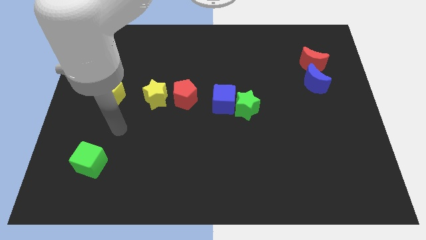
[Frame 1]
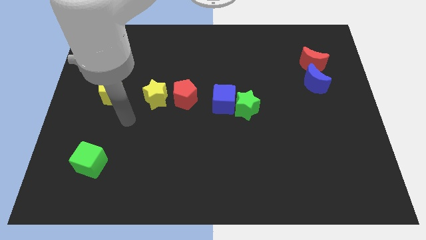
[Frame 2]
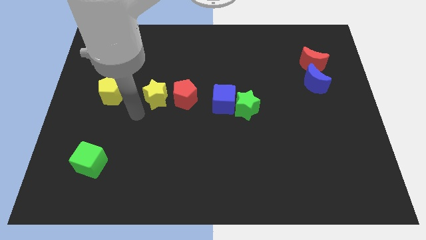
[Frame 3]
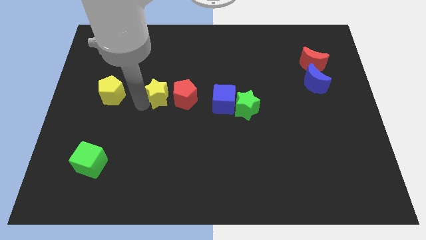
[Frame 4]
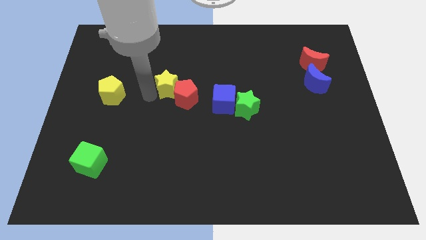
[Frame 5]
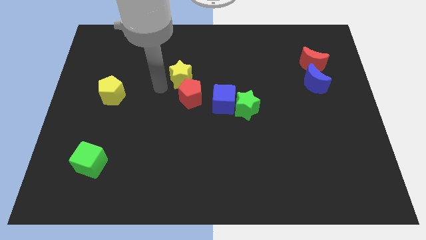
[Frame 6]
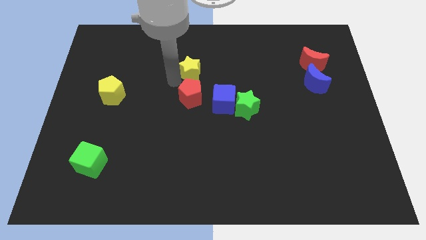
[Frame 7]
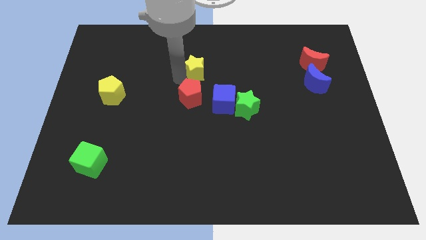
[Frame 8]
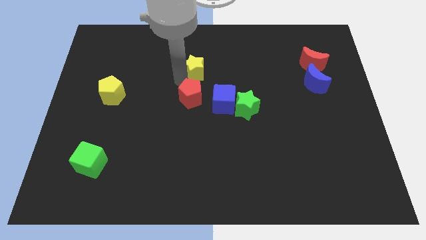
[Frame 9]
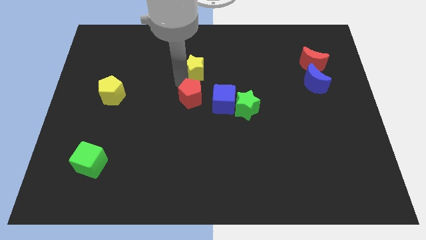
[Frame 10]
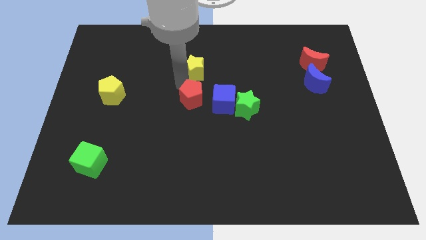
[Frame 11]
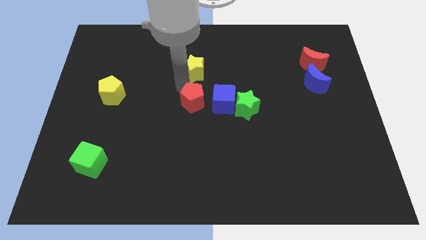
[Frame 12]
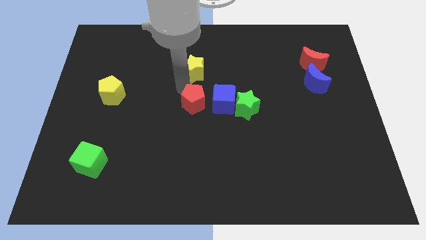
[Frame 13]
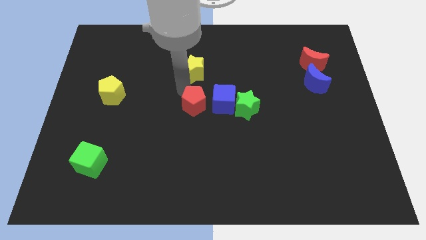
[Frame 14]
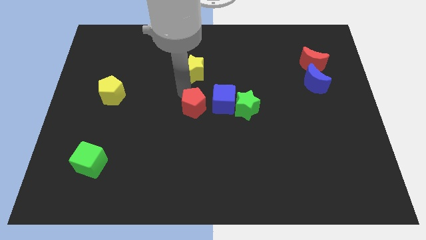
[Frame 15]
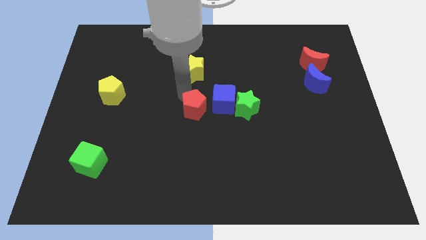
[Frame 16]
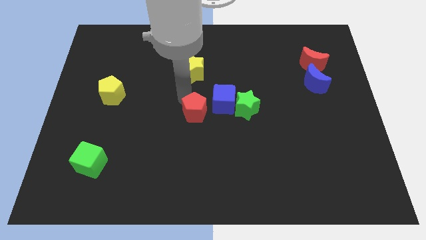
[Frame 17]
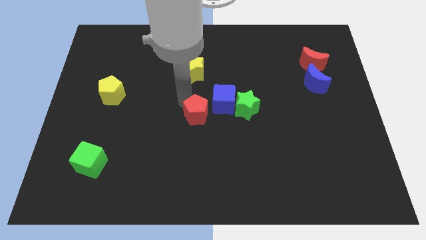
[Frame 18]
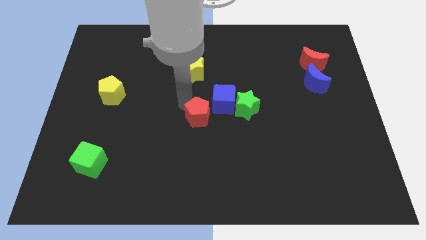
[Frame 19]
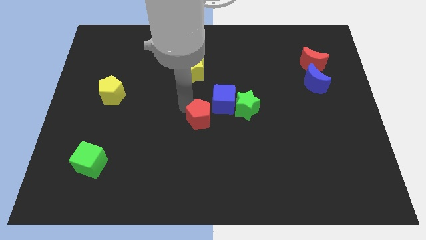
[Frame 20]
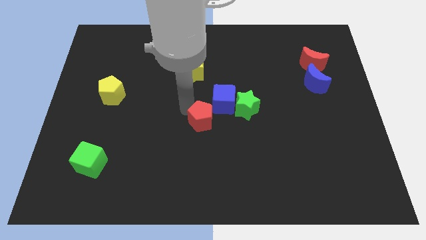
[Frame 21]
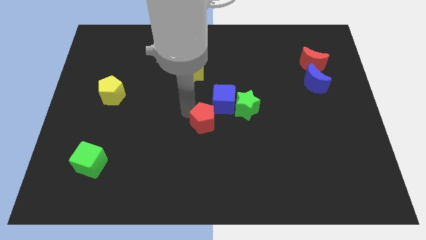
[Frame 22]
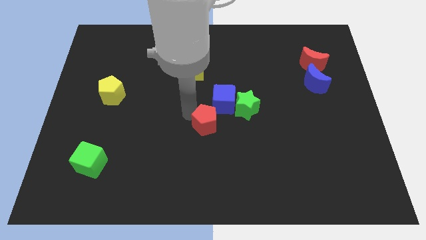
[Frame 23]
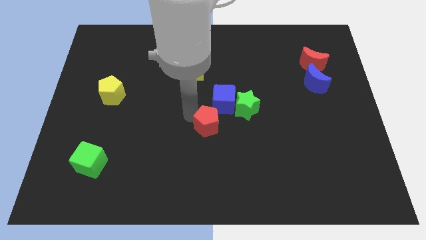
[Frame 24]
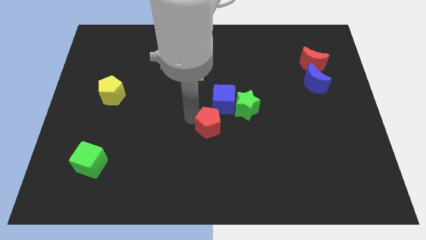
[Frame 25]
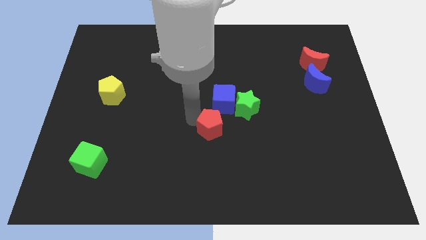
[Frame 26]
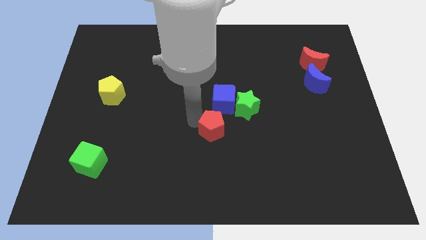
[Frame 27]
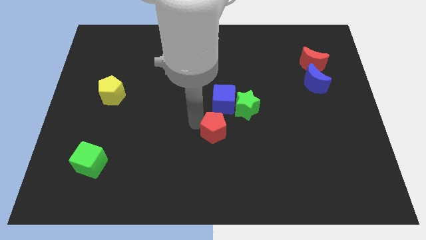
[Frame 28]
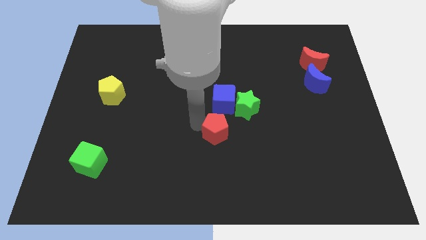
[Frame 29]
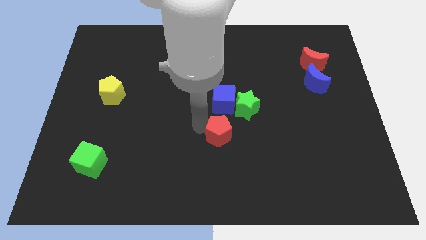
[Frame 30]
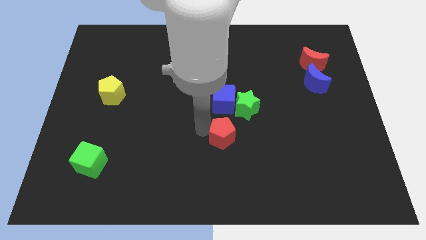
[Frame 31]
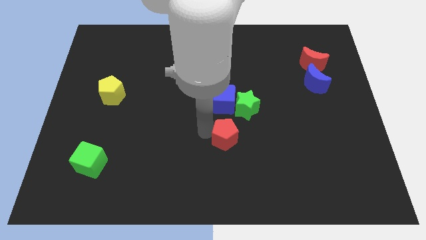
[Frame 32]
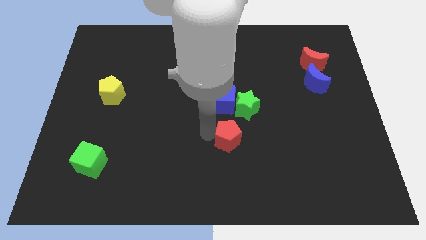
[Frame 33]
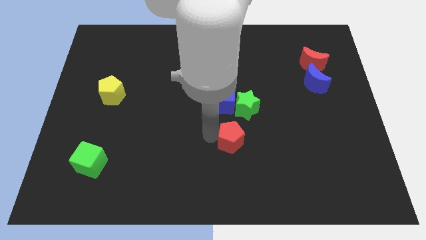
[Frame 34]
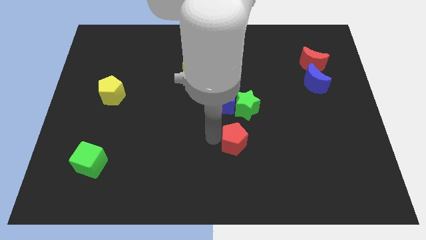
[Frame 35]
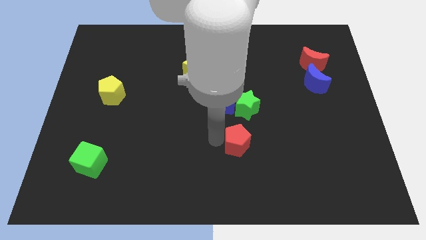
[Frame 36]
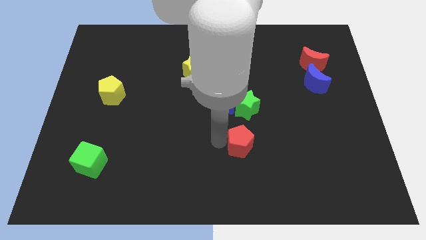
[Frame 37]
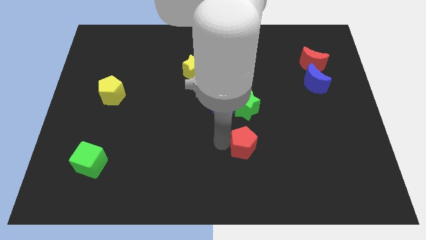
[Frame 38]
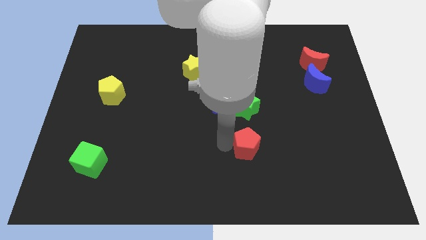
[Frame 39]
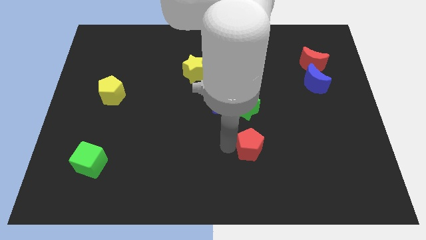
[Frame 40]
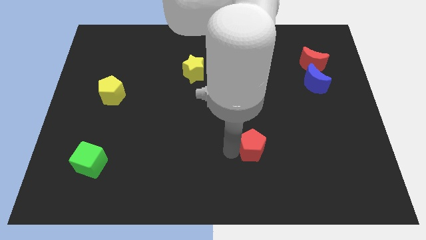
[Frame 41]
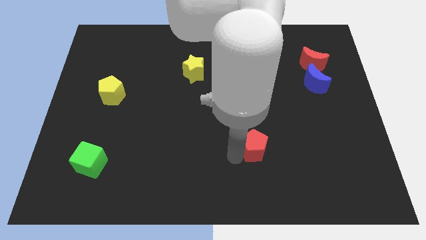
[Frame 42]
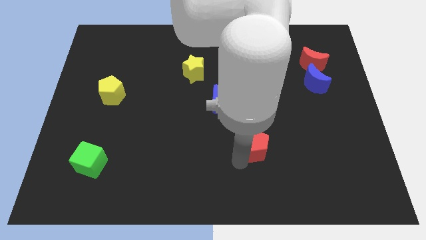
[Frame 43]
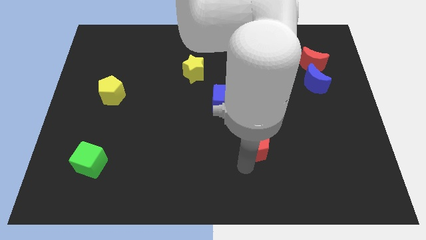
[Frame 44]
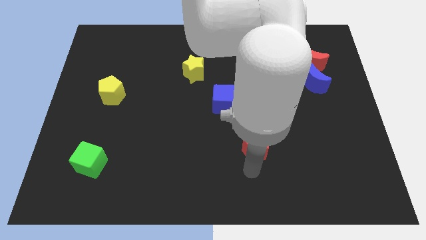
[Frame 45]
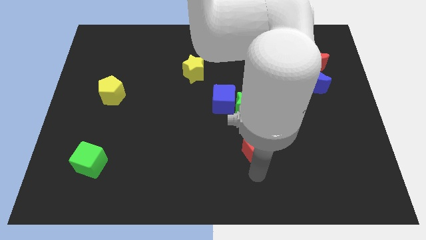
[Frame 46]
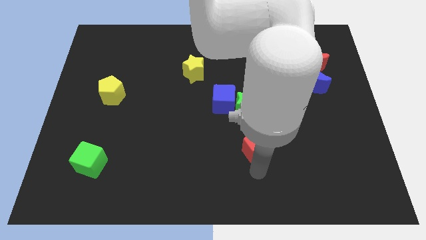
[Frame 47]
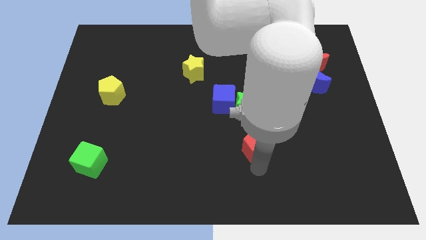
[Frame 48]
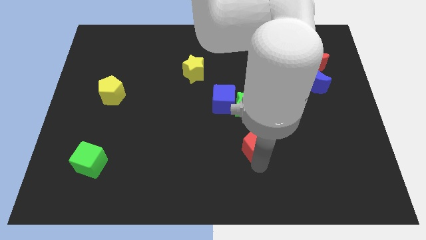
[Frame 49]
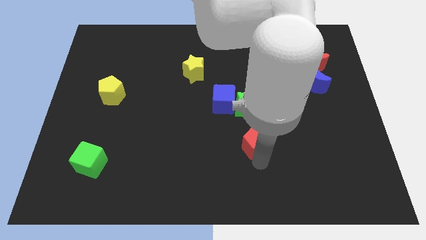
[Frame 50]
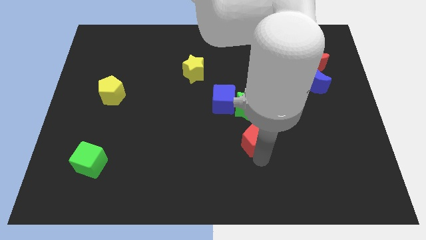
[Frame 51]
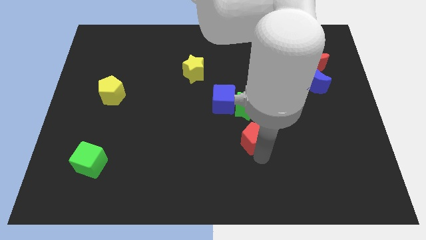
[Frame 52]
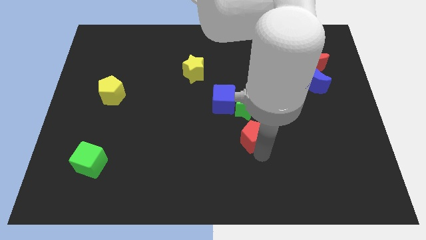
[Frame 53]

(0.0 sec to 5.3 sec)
move the red pentagon to the bottom right of the green star

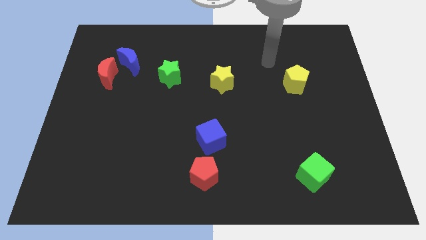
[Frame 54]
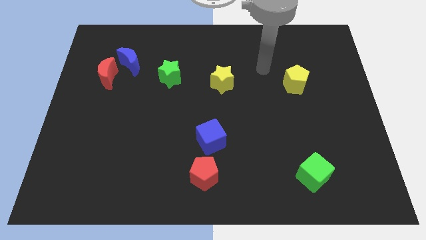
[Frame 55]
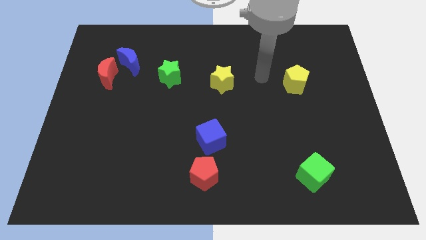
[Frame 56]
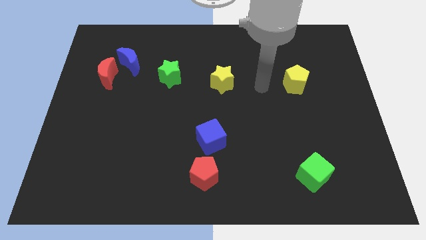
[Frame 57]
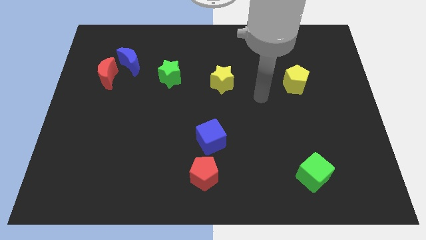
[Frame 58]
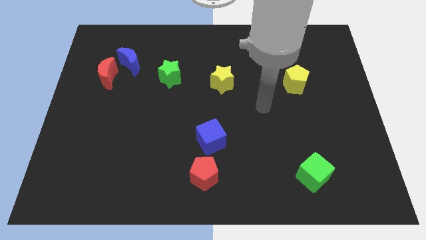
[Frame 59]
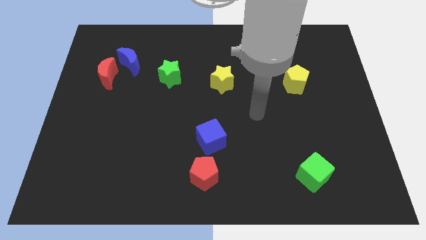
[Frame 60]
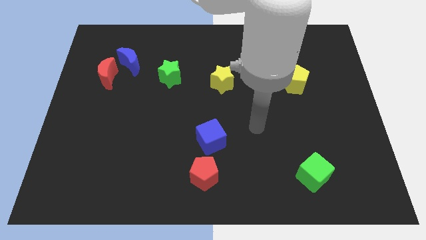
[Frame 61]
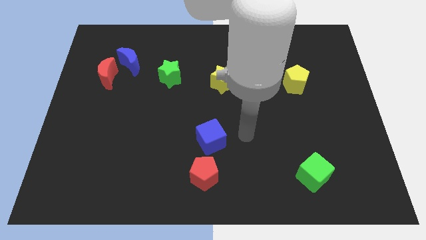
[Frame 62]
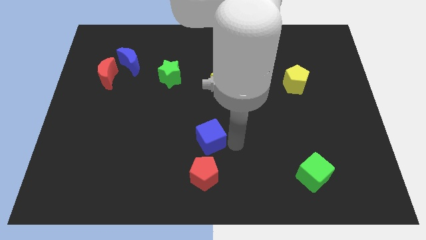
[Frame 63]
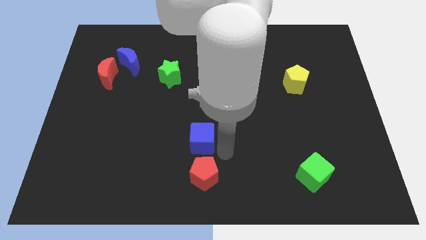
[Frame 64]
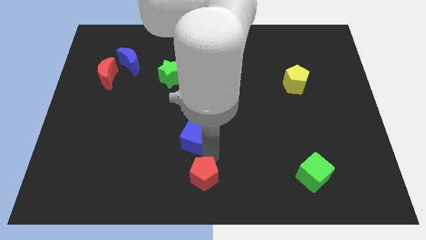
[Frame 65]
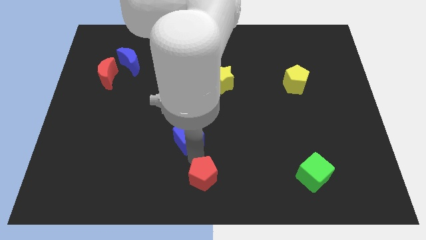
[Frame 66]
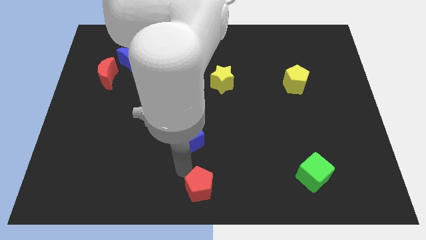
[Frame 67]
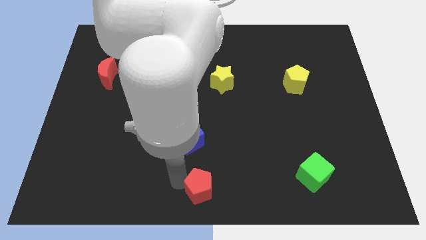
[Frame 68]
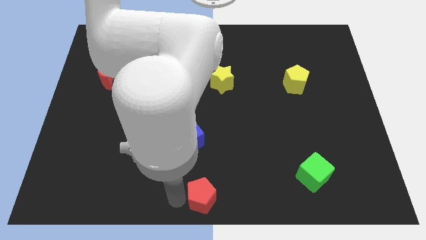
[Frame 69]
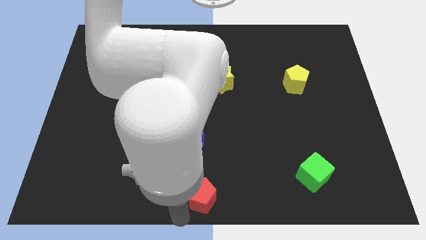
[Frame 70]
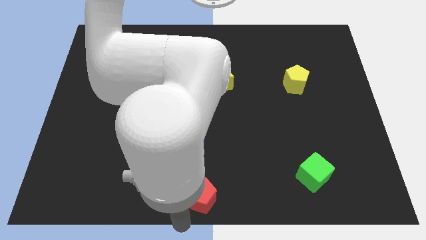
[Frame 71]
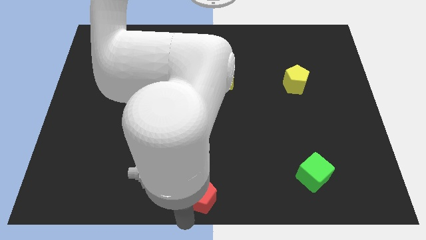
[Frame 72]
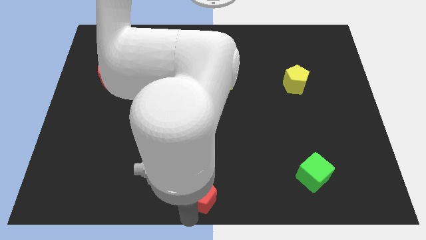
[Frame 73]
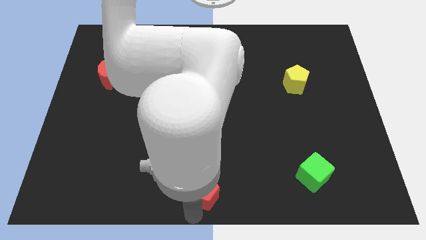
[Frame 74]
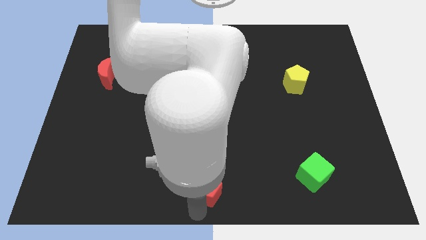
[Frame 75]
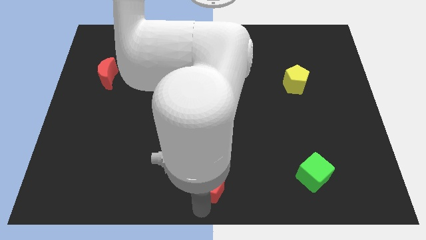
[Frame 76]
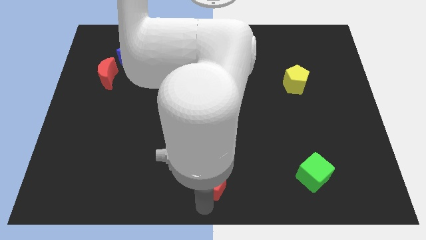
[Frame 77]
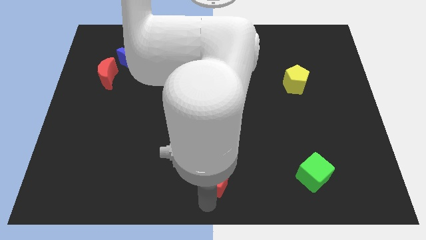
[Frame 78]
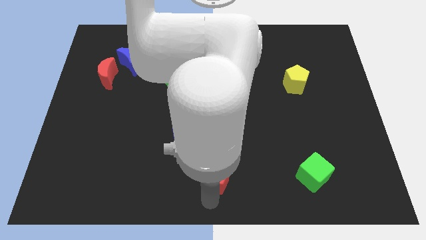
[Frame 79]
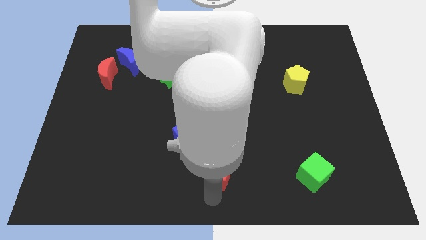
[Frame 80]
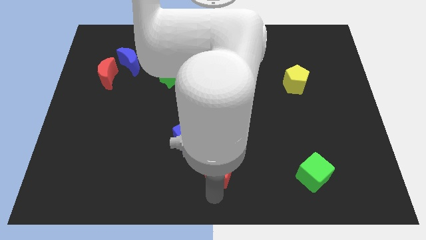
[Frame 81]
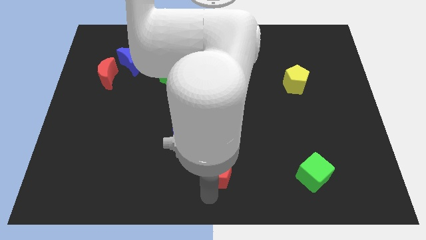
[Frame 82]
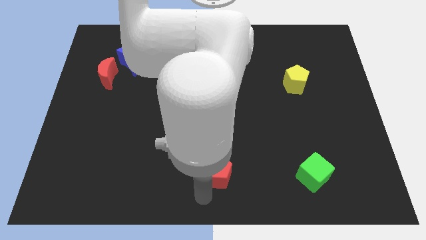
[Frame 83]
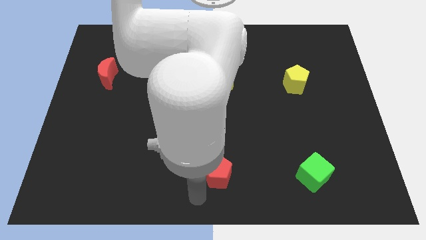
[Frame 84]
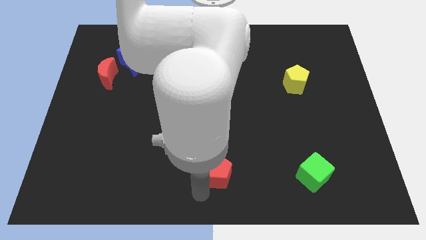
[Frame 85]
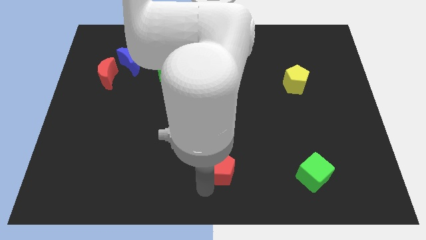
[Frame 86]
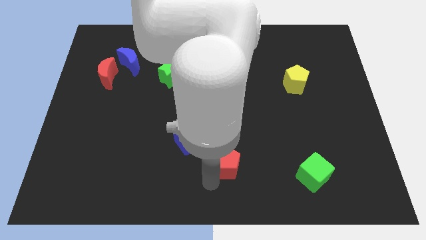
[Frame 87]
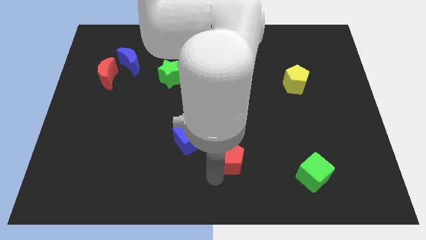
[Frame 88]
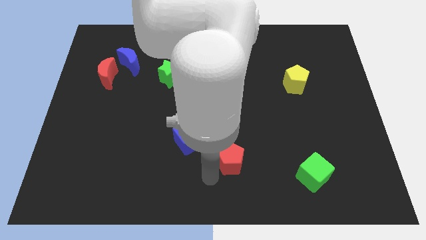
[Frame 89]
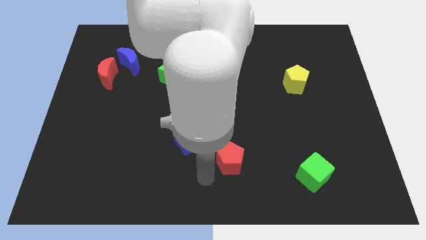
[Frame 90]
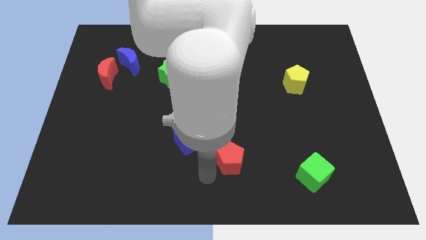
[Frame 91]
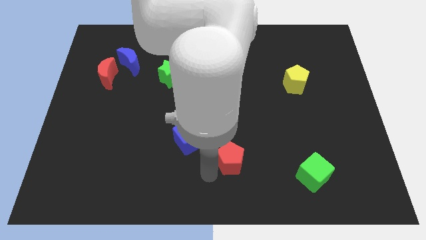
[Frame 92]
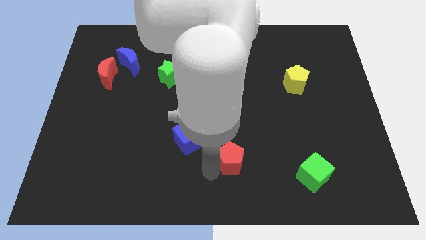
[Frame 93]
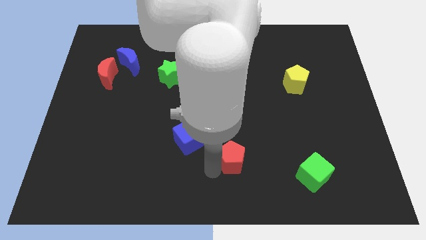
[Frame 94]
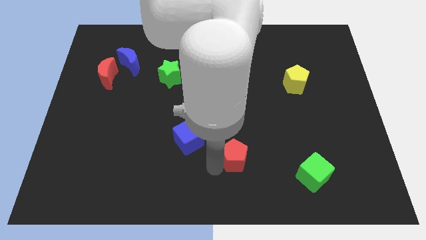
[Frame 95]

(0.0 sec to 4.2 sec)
slide the red pentagon to the right of the blue cube
